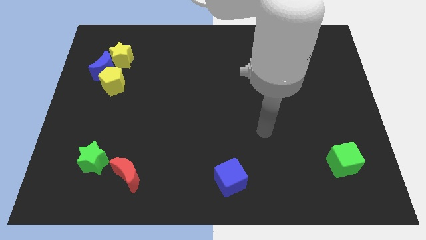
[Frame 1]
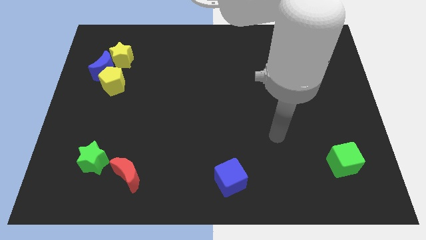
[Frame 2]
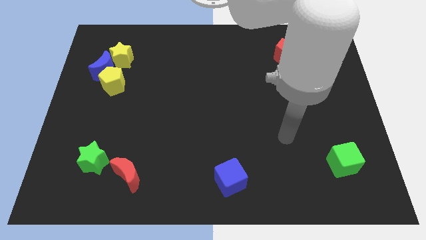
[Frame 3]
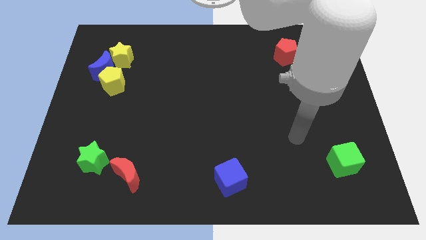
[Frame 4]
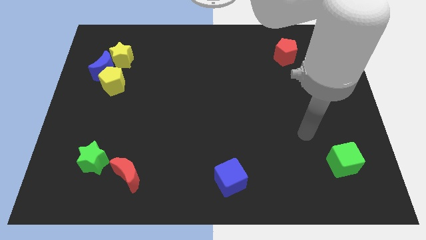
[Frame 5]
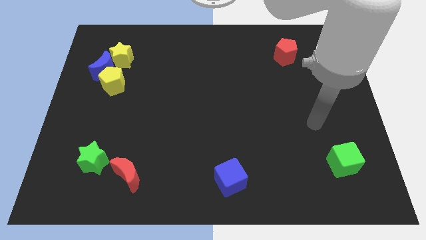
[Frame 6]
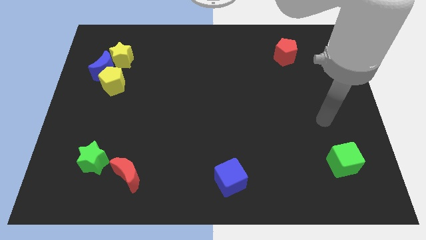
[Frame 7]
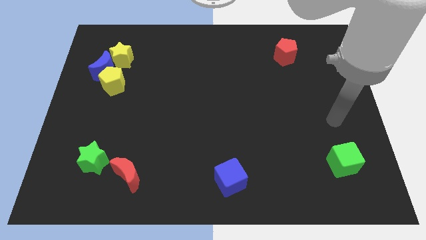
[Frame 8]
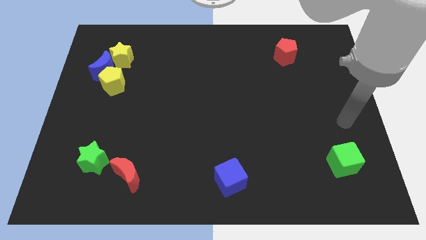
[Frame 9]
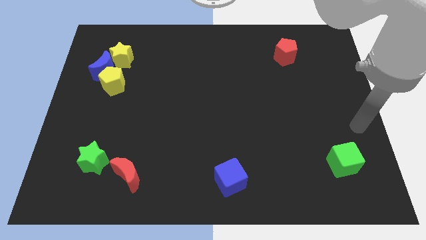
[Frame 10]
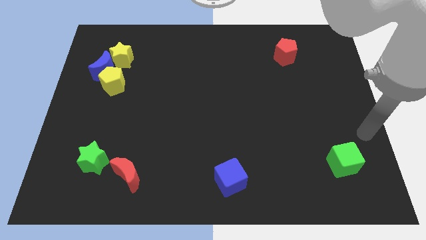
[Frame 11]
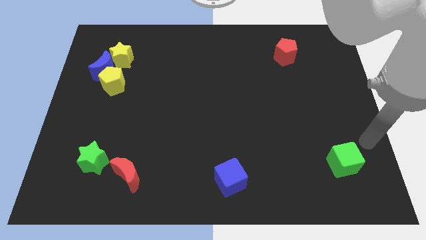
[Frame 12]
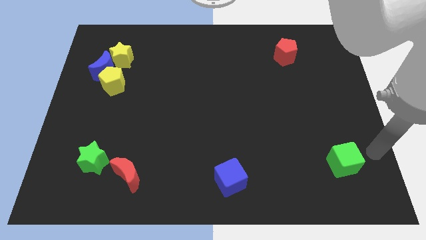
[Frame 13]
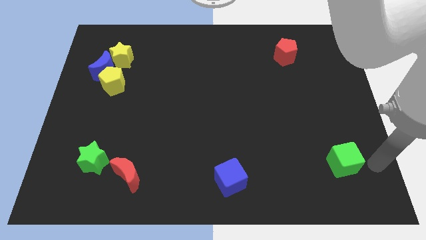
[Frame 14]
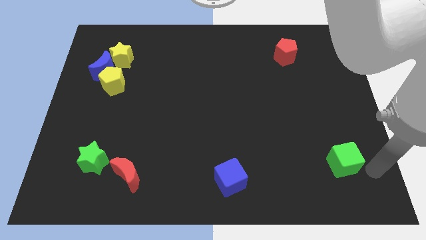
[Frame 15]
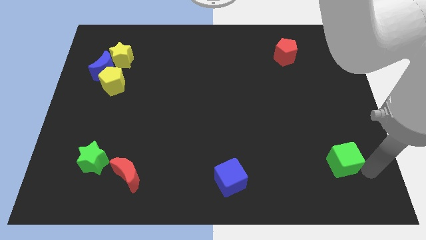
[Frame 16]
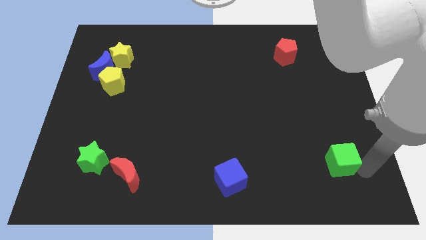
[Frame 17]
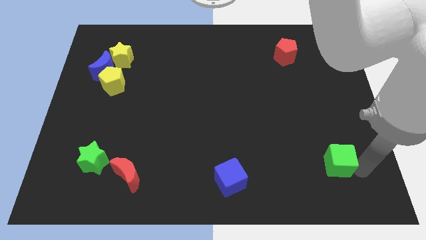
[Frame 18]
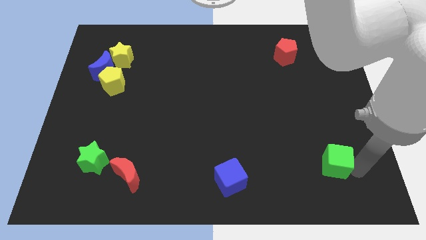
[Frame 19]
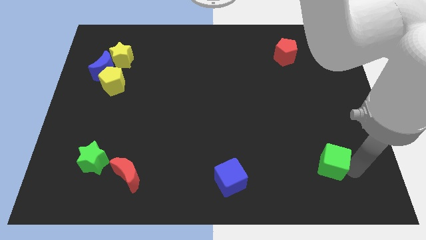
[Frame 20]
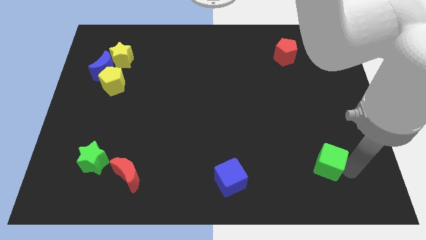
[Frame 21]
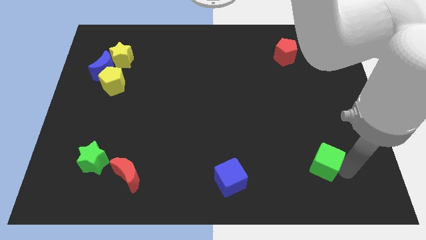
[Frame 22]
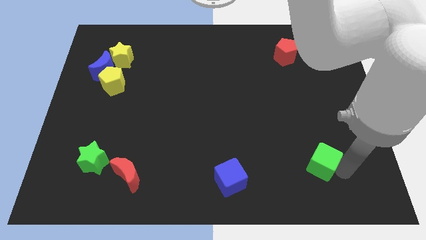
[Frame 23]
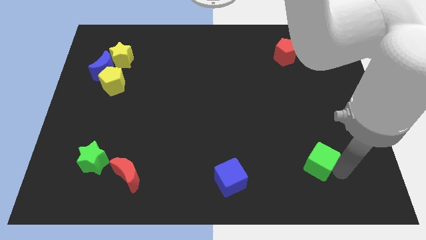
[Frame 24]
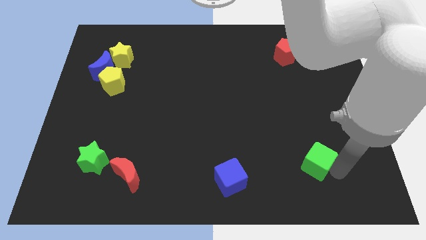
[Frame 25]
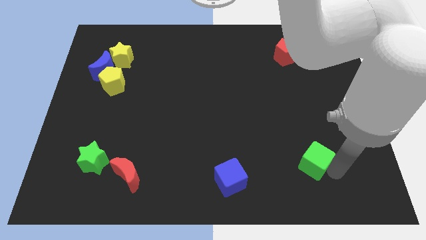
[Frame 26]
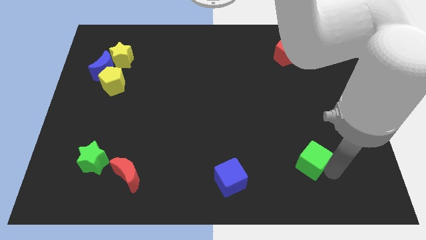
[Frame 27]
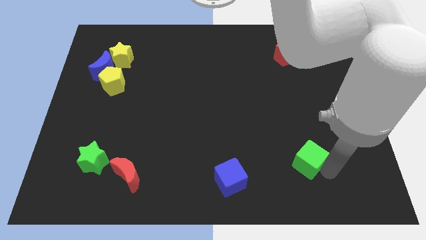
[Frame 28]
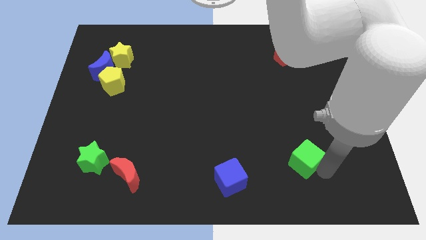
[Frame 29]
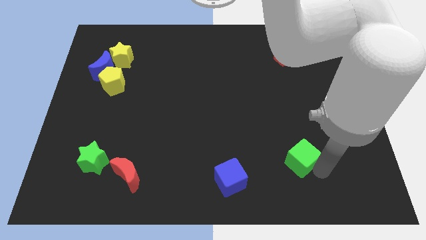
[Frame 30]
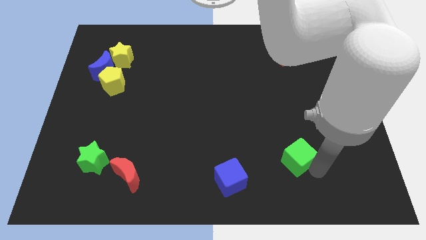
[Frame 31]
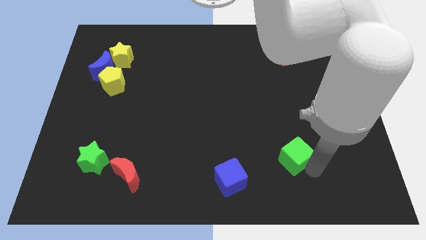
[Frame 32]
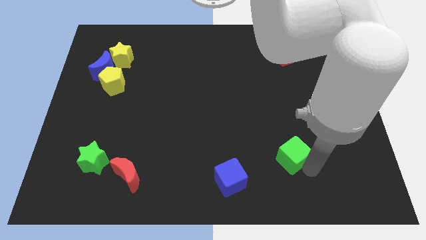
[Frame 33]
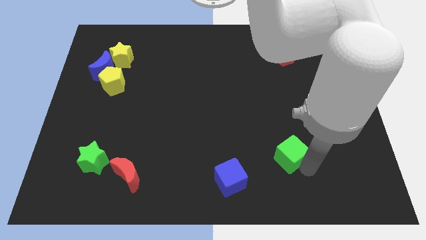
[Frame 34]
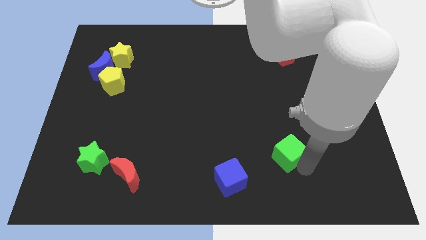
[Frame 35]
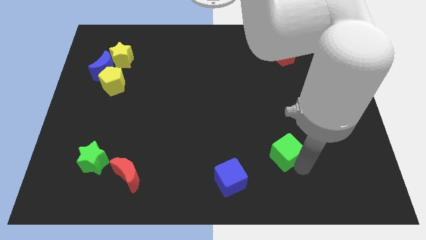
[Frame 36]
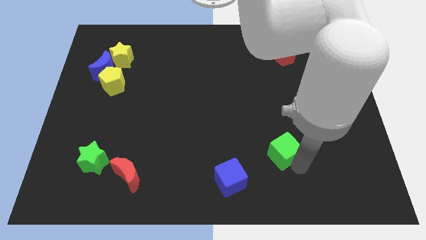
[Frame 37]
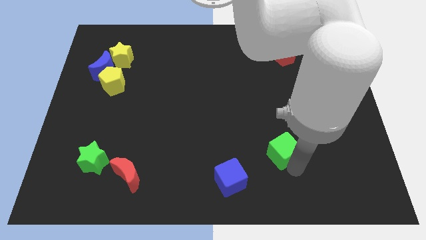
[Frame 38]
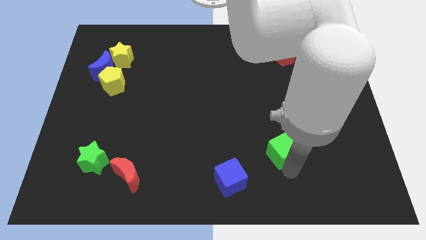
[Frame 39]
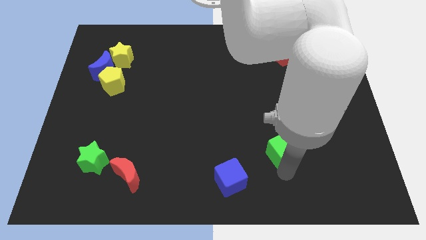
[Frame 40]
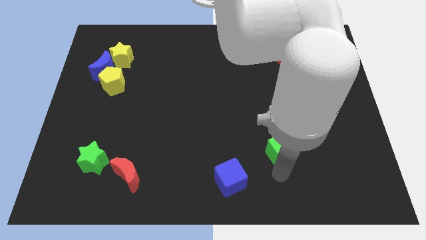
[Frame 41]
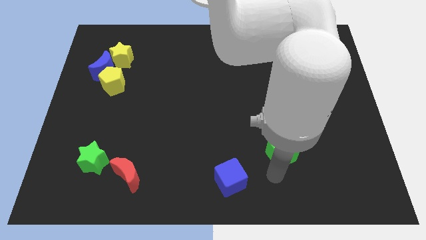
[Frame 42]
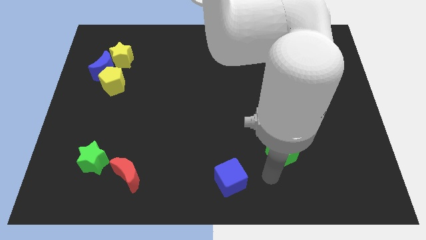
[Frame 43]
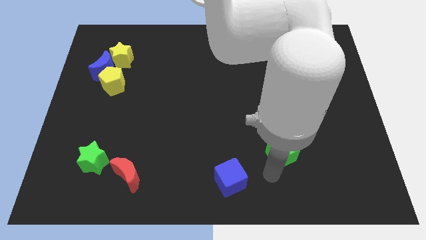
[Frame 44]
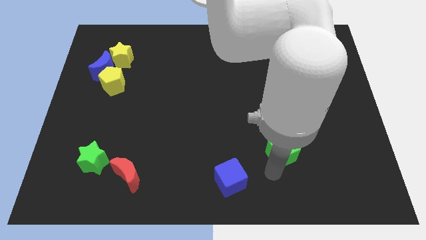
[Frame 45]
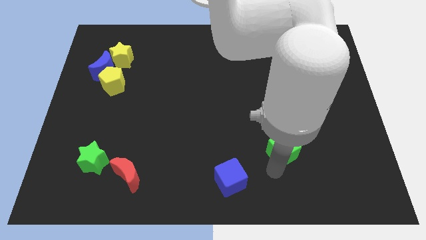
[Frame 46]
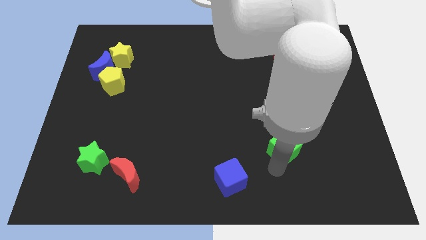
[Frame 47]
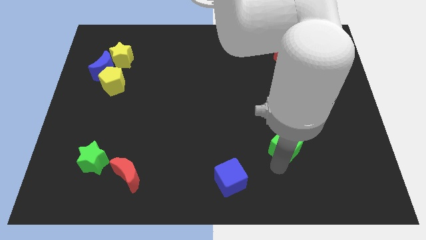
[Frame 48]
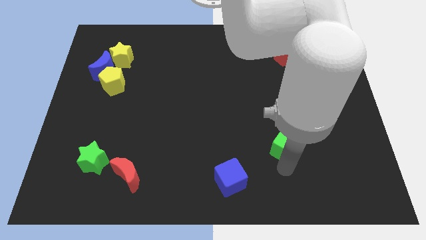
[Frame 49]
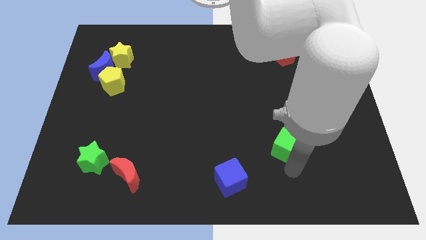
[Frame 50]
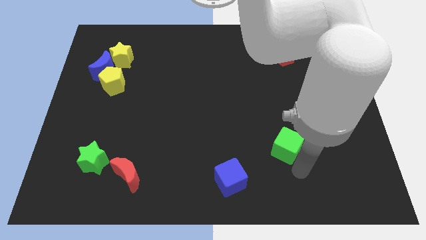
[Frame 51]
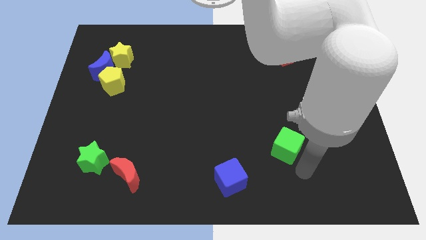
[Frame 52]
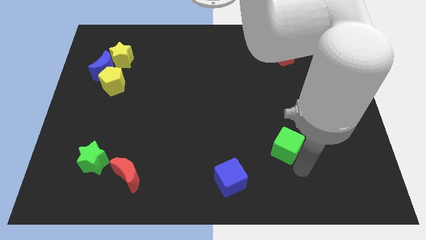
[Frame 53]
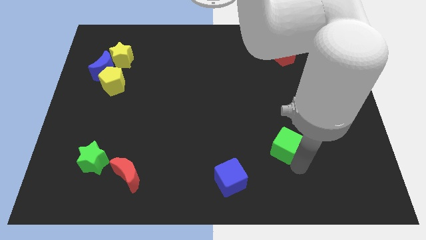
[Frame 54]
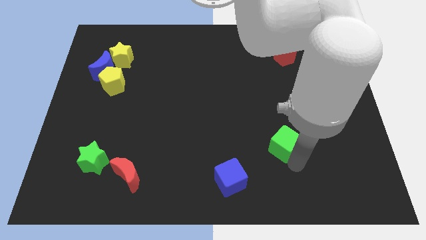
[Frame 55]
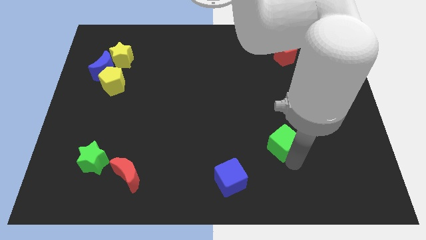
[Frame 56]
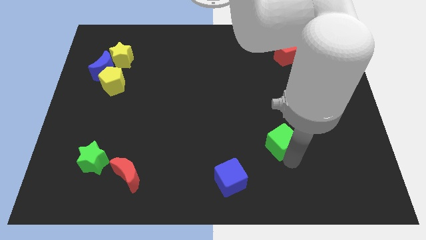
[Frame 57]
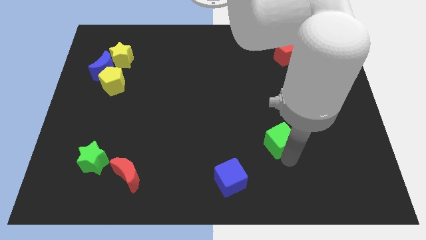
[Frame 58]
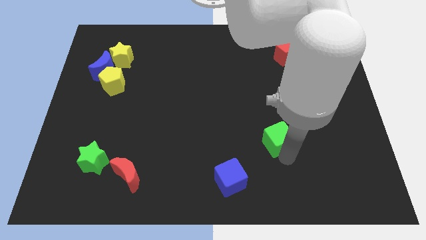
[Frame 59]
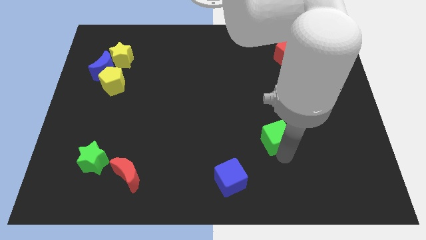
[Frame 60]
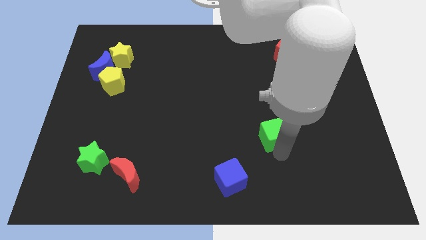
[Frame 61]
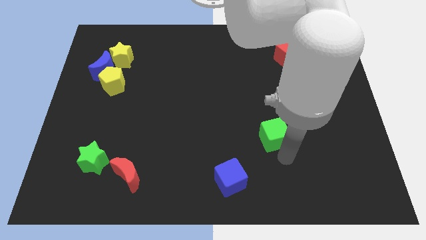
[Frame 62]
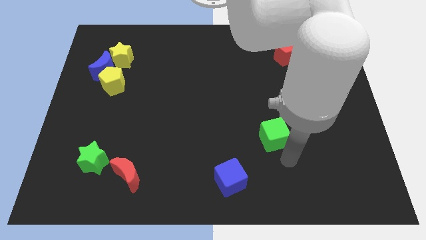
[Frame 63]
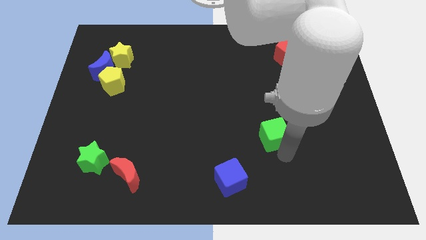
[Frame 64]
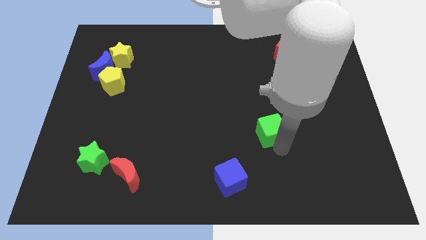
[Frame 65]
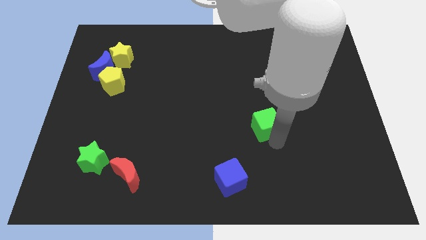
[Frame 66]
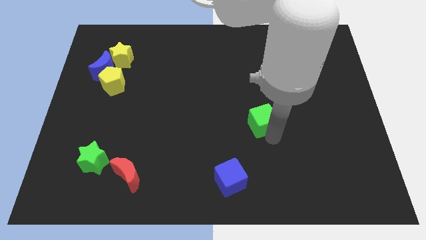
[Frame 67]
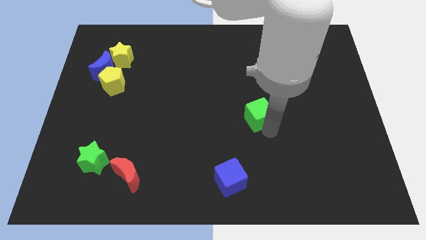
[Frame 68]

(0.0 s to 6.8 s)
push the green cube to the center of the board
